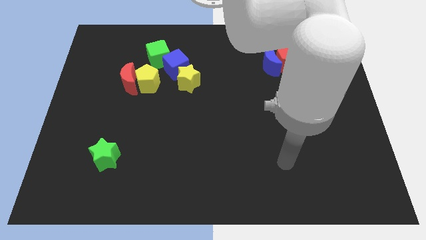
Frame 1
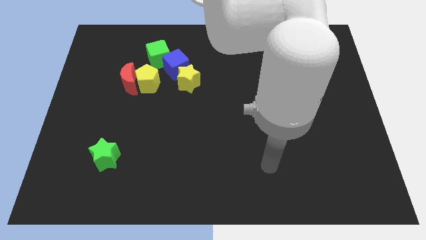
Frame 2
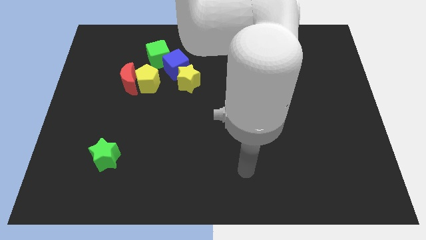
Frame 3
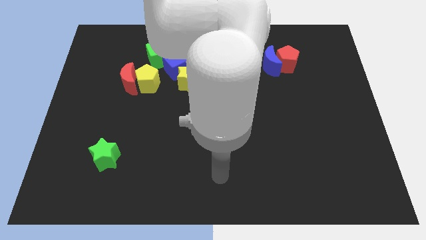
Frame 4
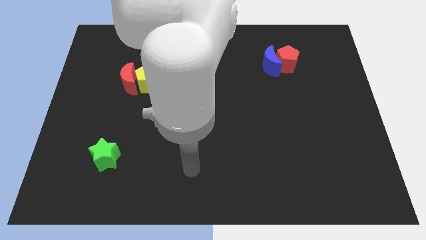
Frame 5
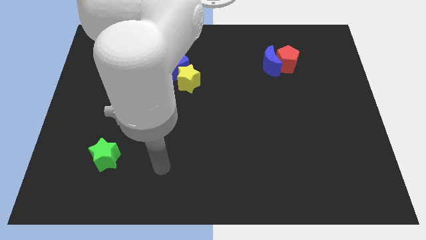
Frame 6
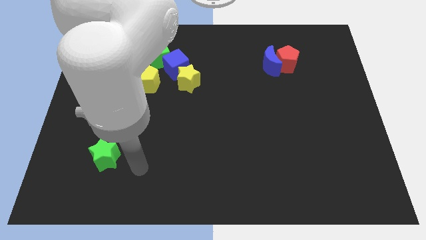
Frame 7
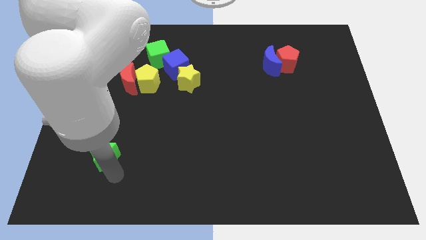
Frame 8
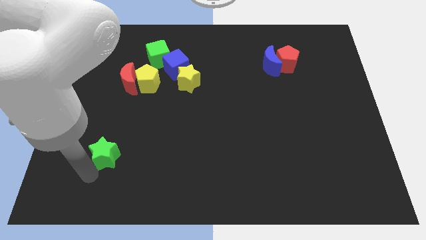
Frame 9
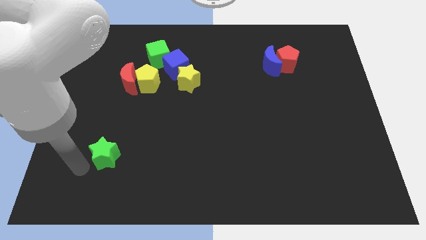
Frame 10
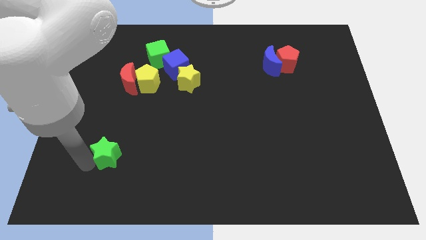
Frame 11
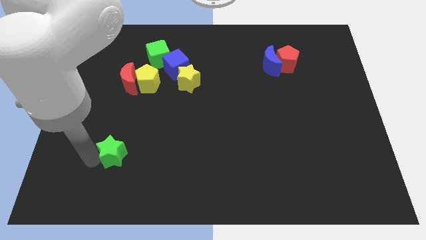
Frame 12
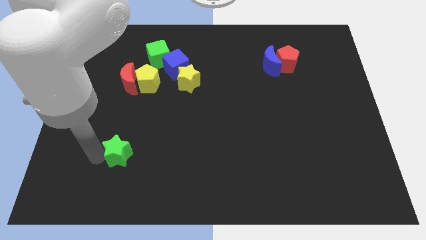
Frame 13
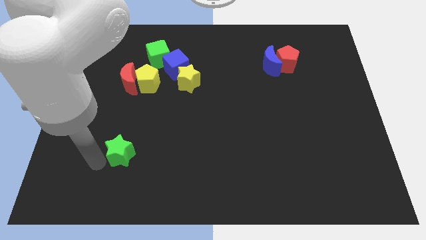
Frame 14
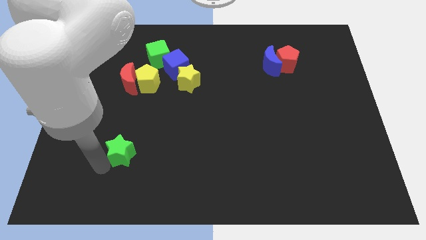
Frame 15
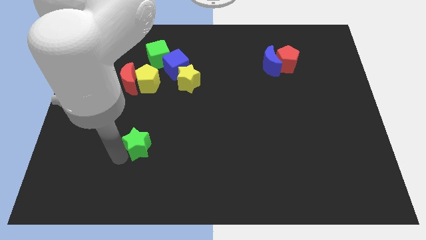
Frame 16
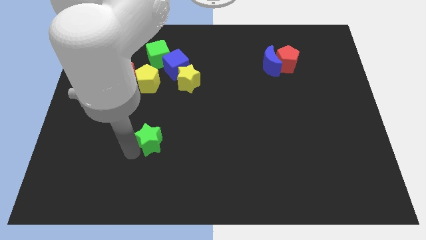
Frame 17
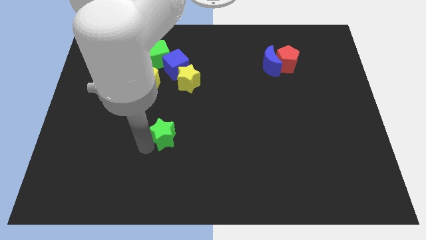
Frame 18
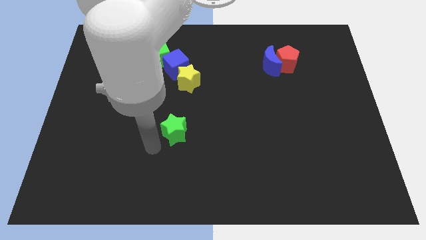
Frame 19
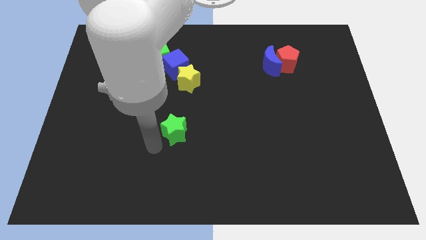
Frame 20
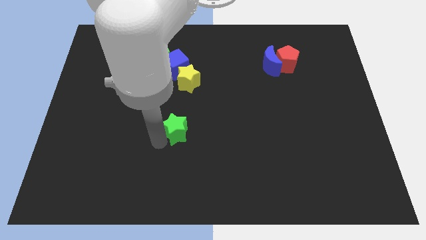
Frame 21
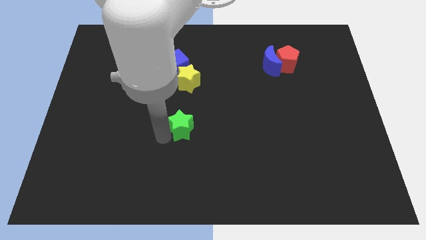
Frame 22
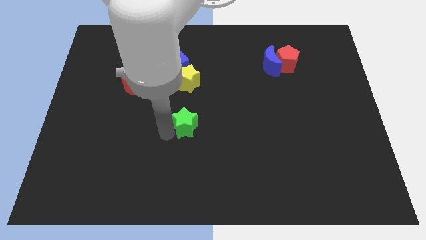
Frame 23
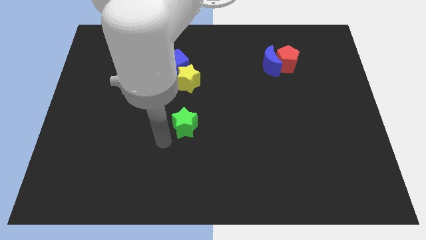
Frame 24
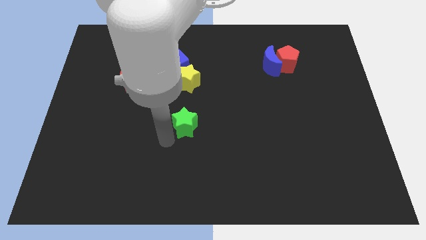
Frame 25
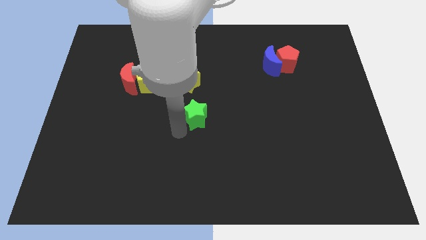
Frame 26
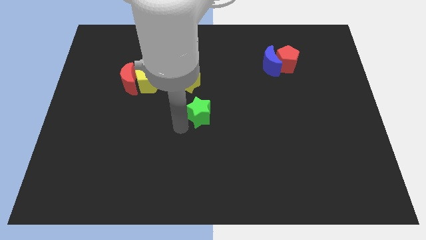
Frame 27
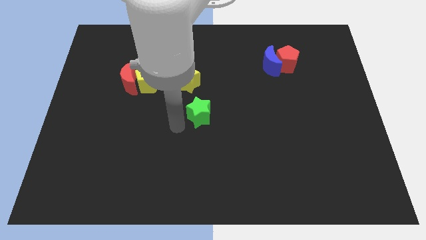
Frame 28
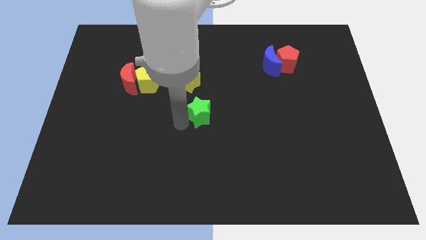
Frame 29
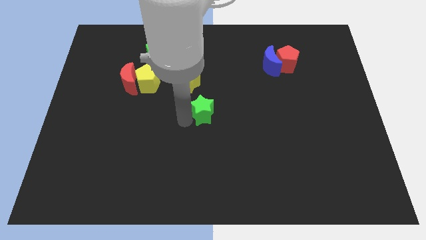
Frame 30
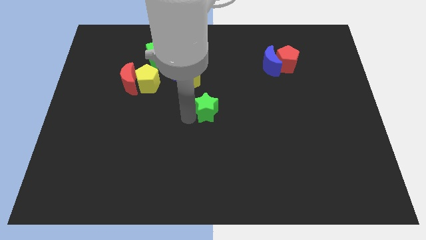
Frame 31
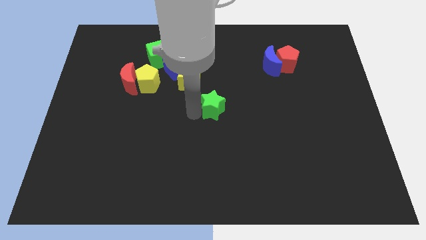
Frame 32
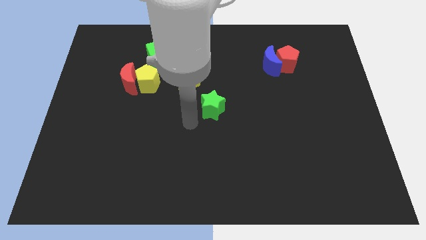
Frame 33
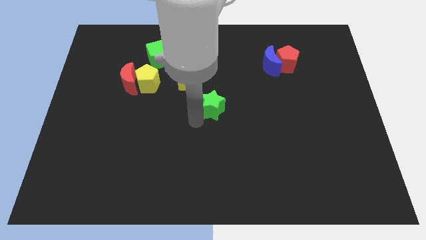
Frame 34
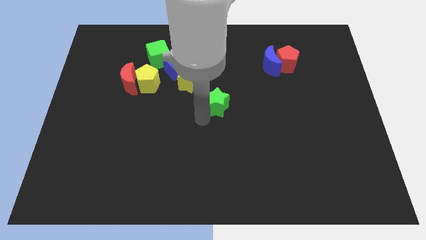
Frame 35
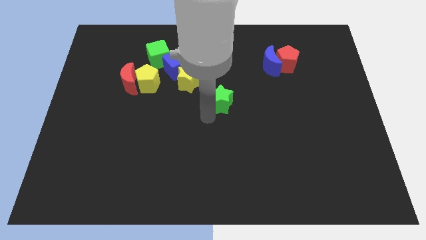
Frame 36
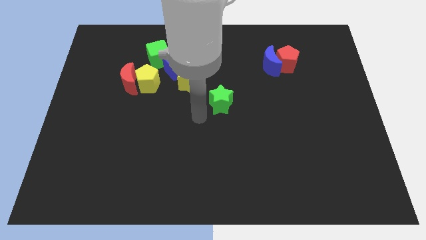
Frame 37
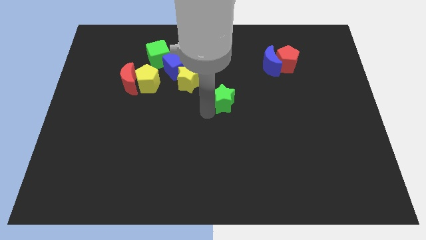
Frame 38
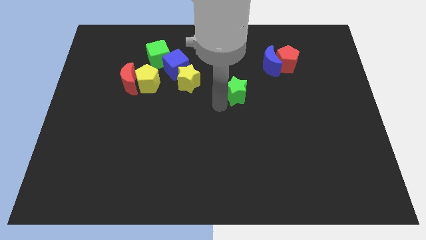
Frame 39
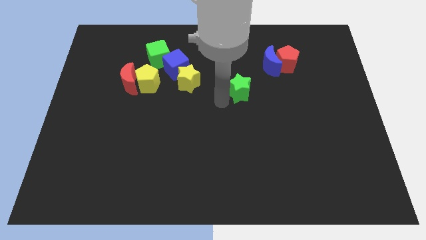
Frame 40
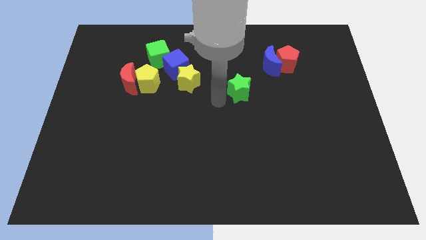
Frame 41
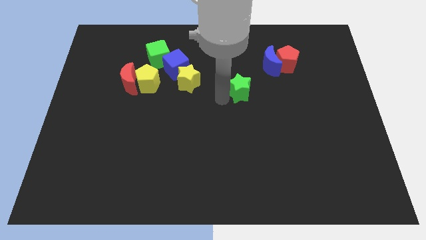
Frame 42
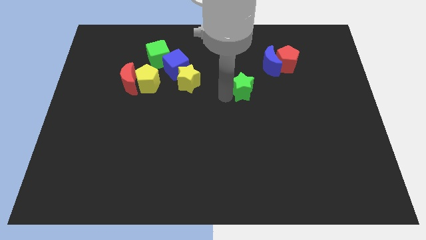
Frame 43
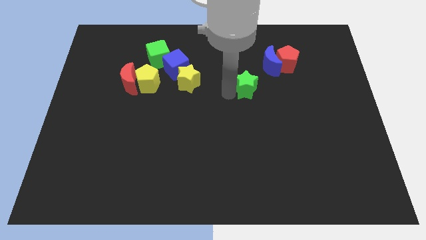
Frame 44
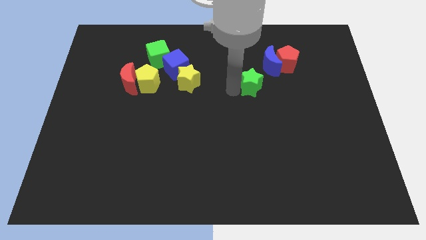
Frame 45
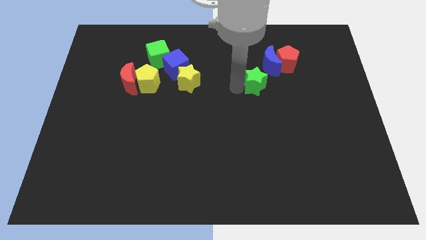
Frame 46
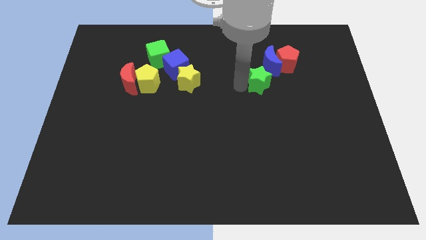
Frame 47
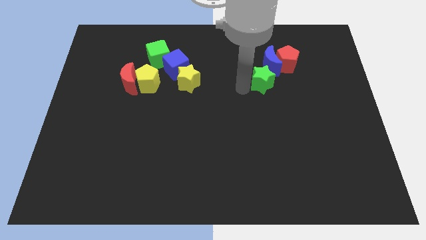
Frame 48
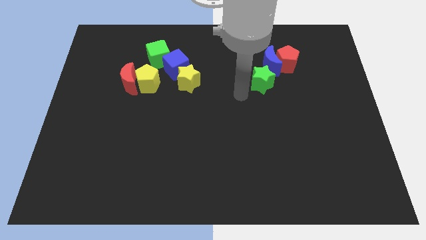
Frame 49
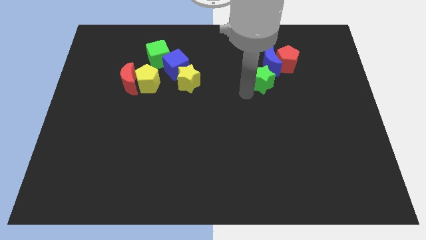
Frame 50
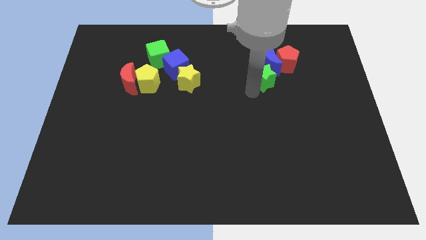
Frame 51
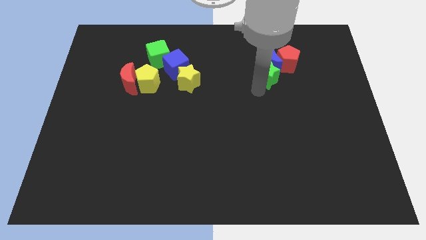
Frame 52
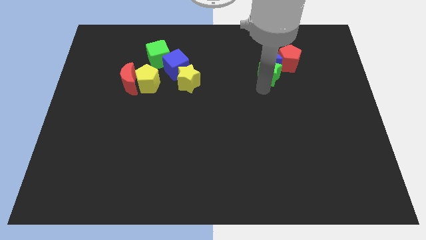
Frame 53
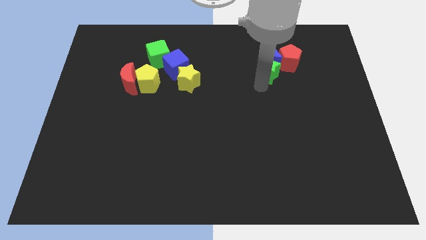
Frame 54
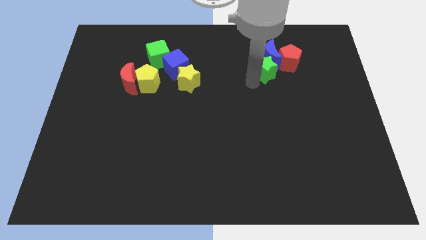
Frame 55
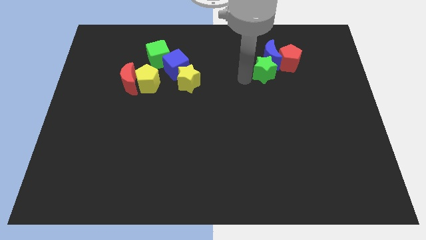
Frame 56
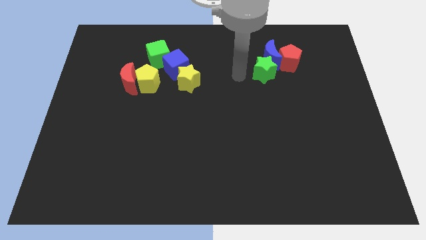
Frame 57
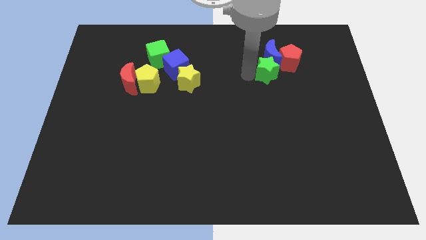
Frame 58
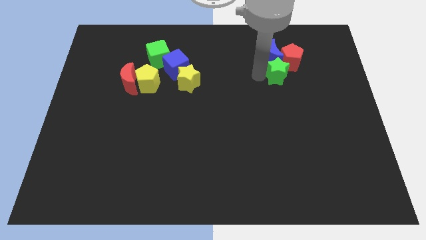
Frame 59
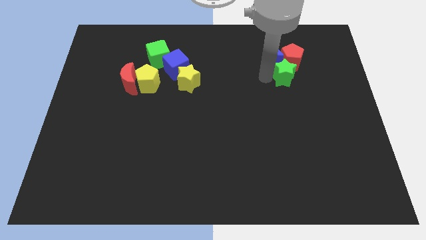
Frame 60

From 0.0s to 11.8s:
slide the green star to the red pentagon
